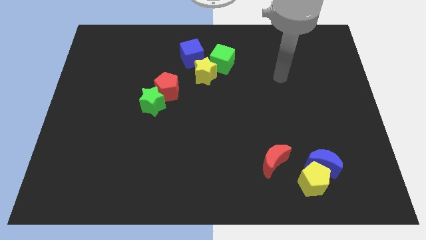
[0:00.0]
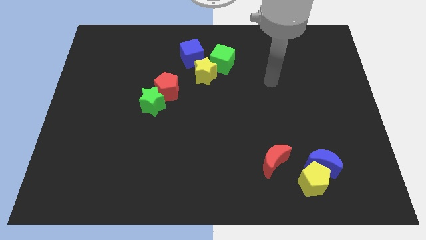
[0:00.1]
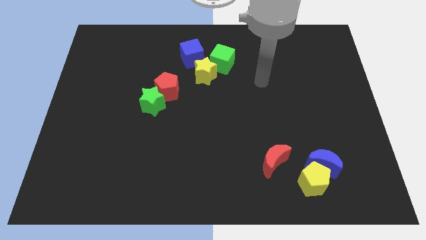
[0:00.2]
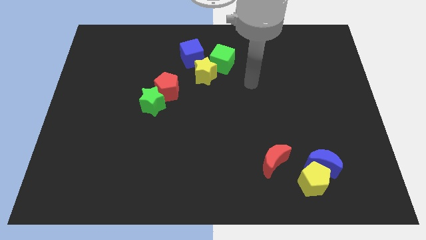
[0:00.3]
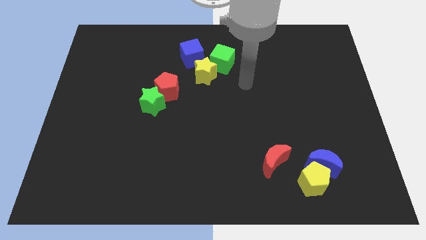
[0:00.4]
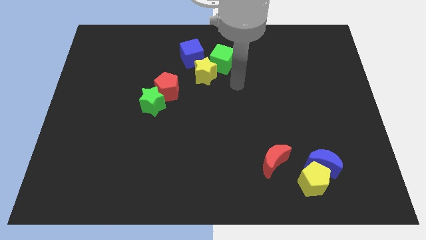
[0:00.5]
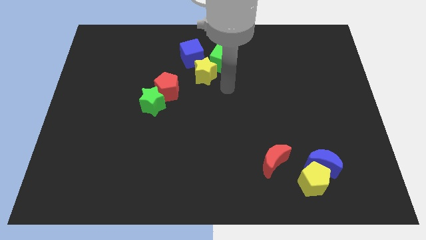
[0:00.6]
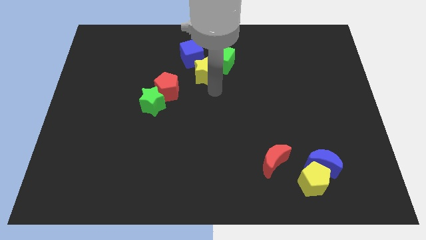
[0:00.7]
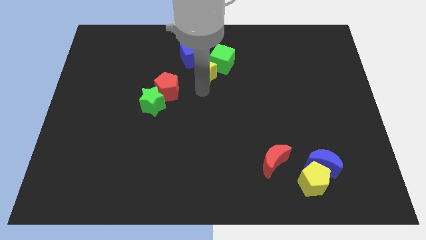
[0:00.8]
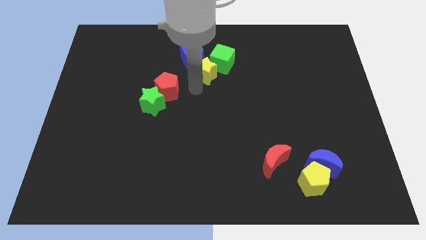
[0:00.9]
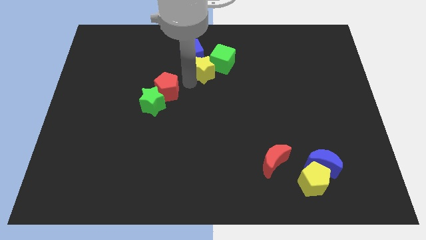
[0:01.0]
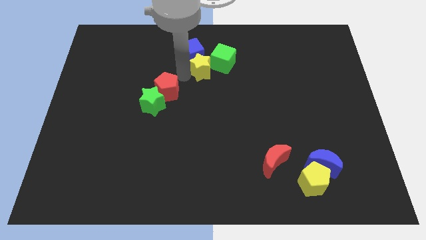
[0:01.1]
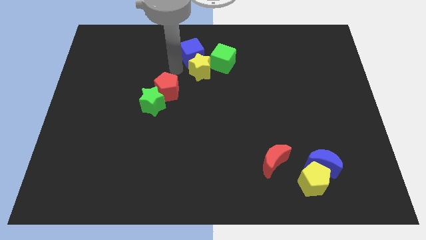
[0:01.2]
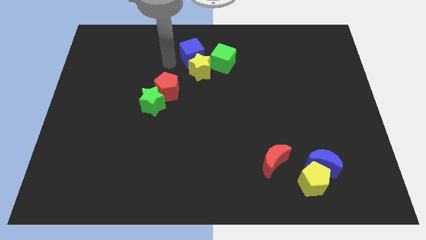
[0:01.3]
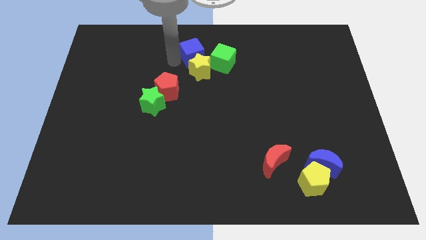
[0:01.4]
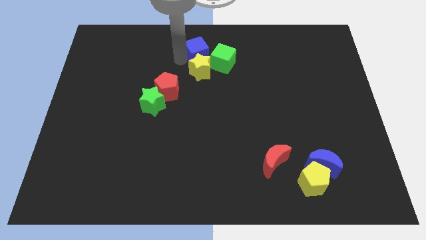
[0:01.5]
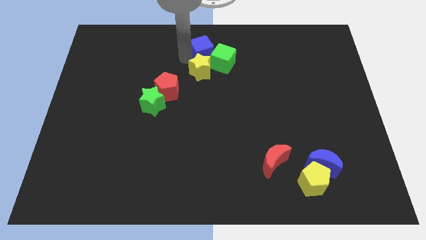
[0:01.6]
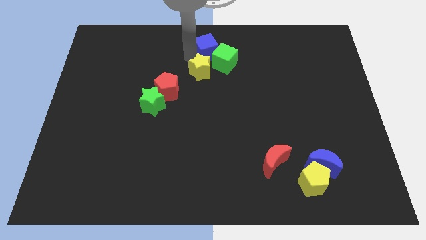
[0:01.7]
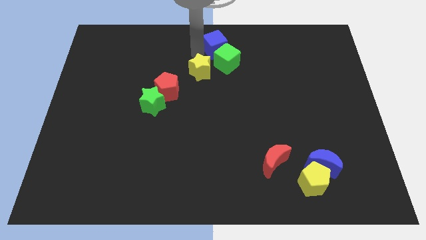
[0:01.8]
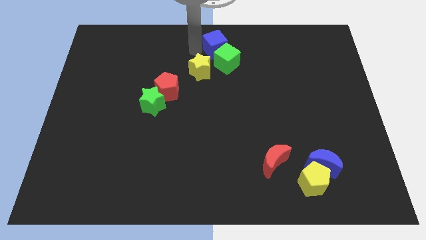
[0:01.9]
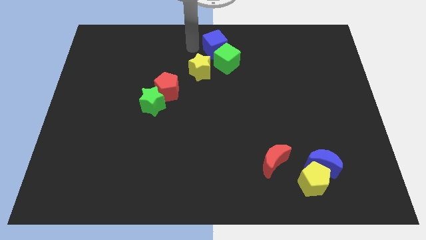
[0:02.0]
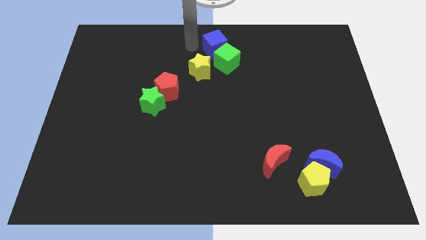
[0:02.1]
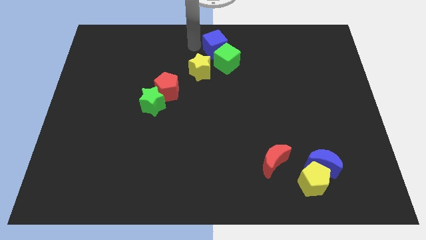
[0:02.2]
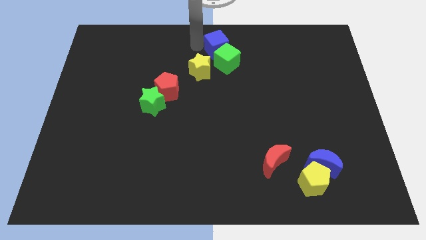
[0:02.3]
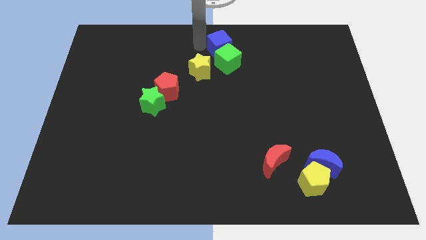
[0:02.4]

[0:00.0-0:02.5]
push the blue cube a little right

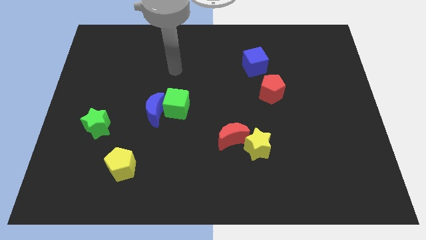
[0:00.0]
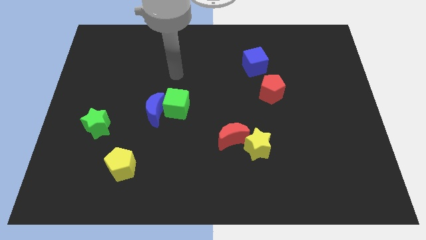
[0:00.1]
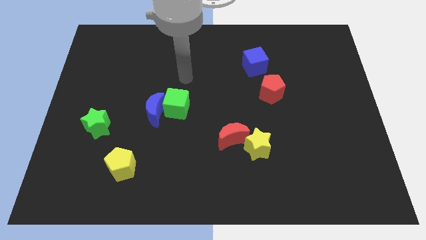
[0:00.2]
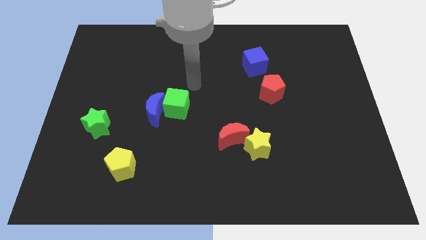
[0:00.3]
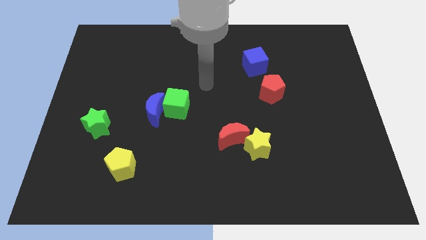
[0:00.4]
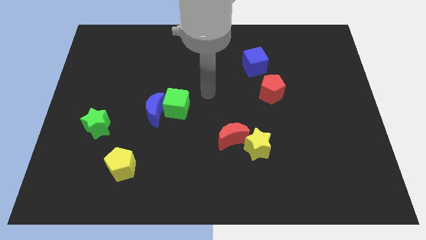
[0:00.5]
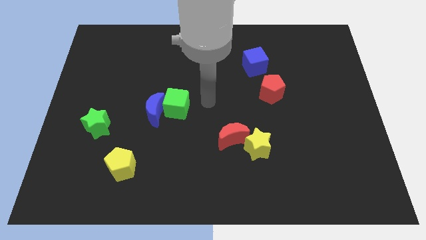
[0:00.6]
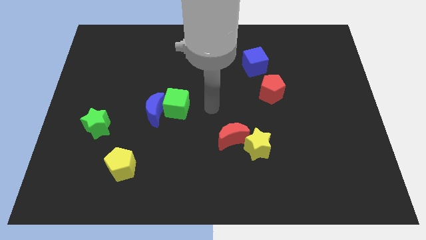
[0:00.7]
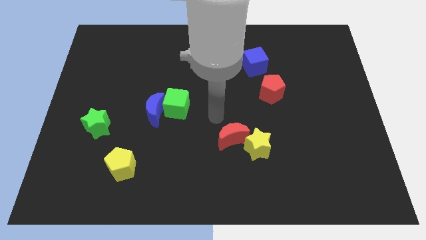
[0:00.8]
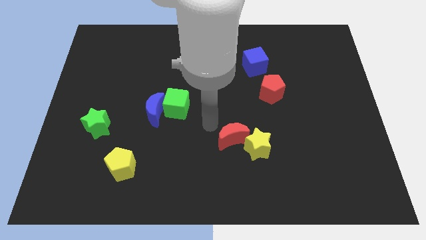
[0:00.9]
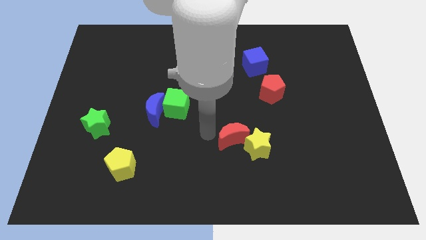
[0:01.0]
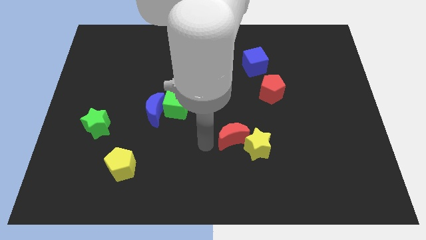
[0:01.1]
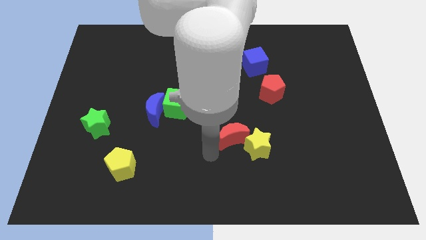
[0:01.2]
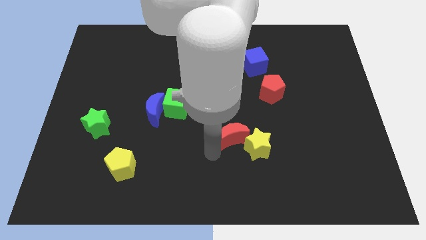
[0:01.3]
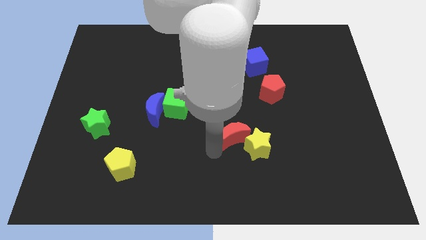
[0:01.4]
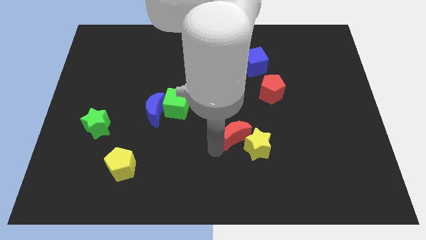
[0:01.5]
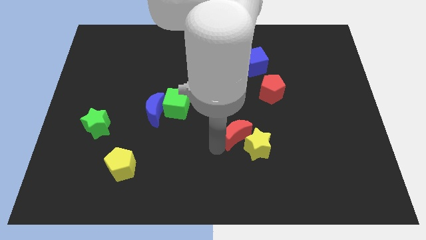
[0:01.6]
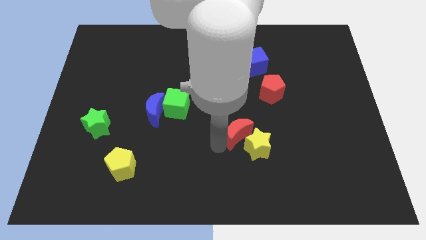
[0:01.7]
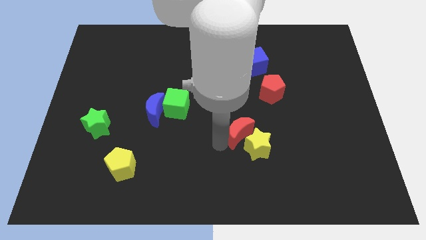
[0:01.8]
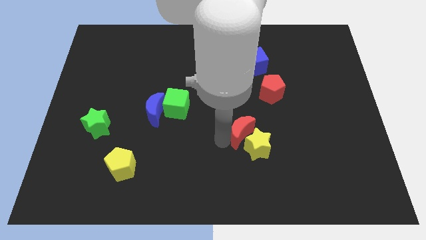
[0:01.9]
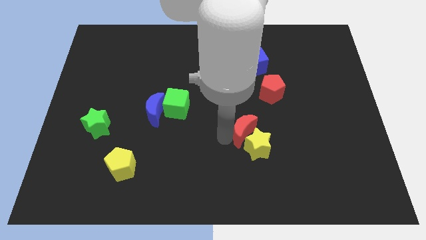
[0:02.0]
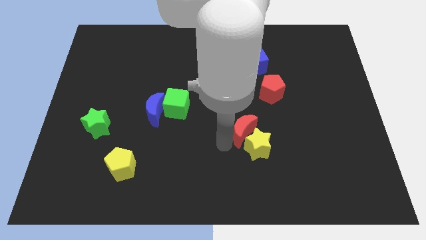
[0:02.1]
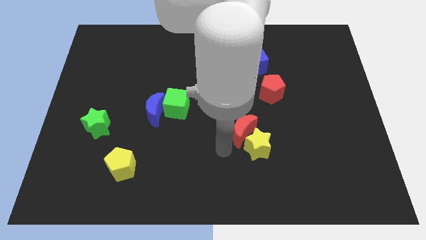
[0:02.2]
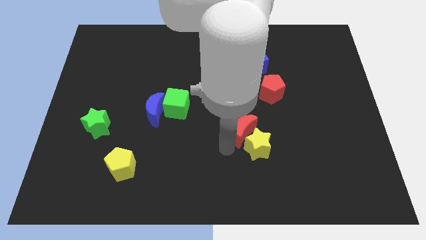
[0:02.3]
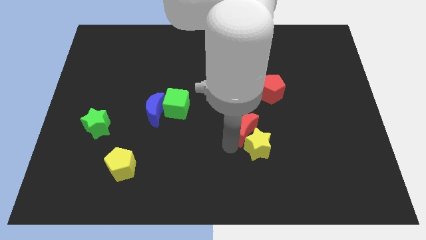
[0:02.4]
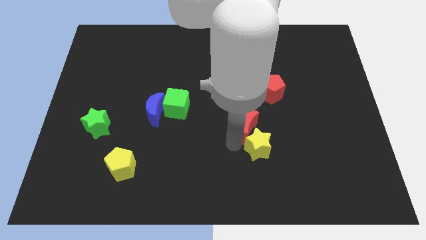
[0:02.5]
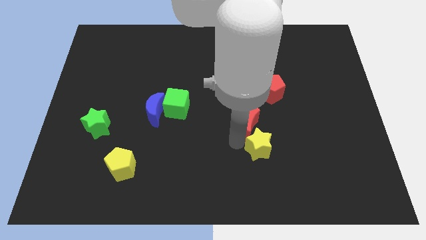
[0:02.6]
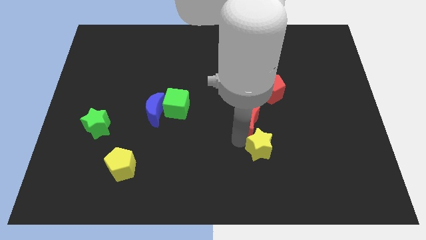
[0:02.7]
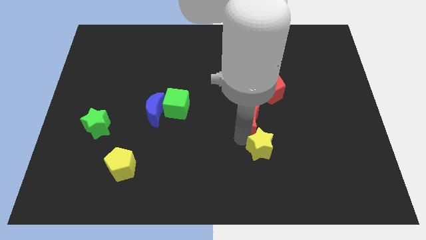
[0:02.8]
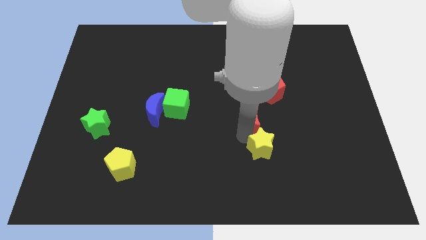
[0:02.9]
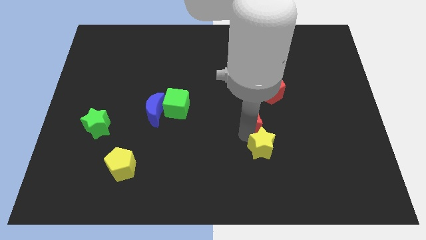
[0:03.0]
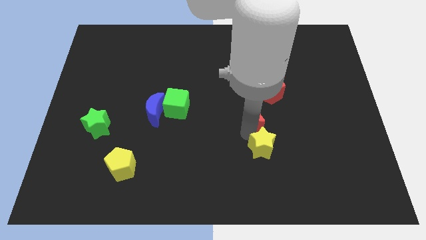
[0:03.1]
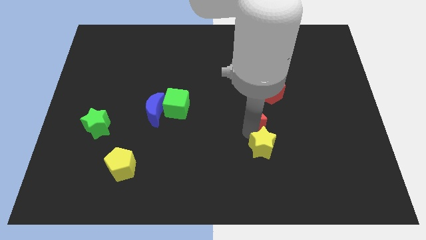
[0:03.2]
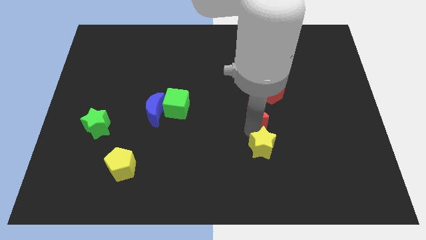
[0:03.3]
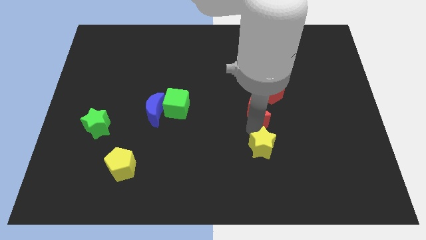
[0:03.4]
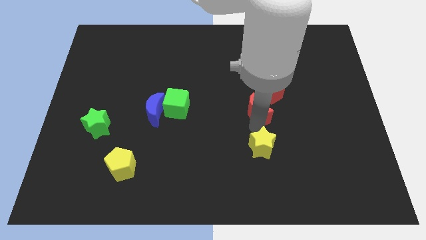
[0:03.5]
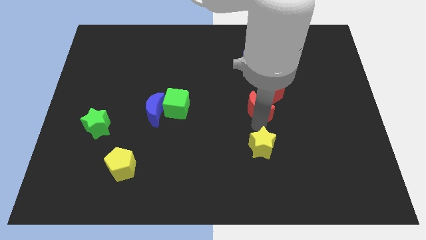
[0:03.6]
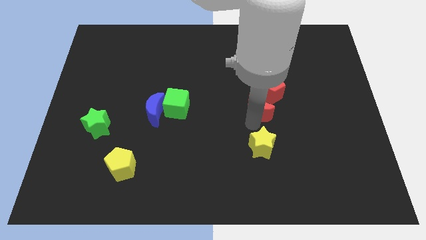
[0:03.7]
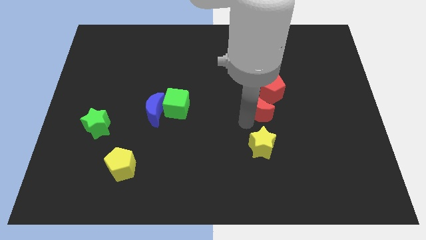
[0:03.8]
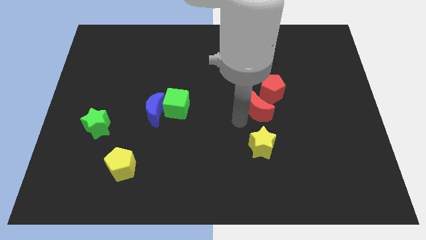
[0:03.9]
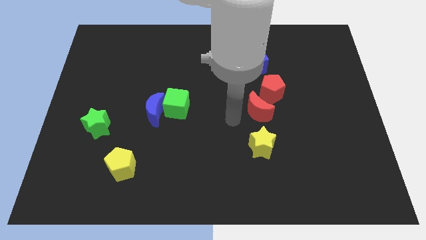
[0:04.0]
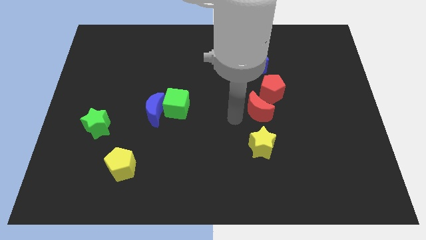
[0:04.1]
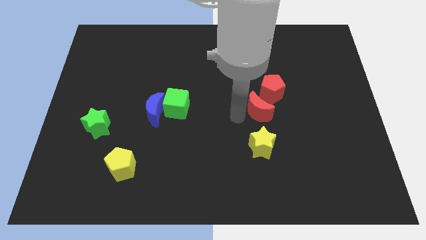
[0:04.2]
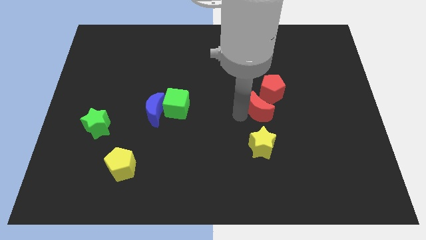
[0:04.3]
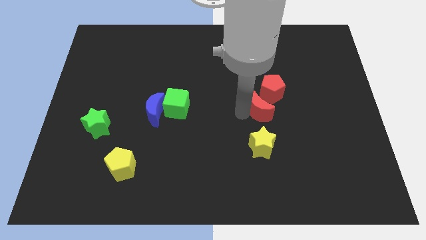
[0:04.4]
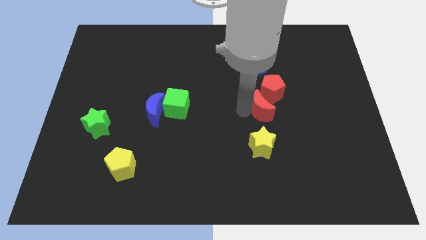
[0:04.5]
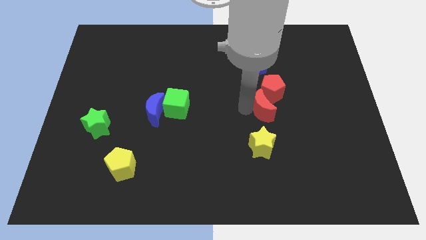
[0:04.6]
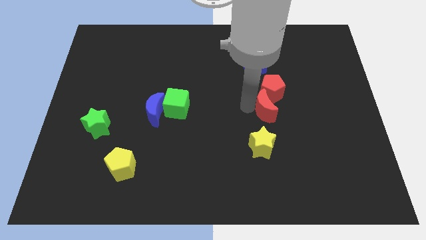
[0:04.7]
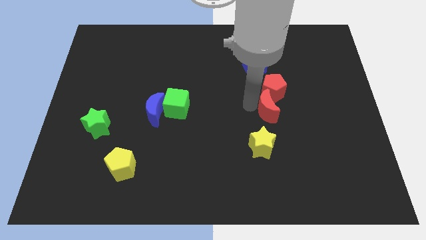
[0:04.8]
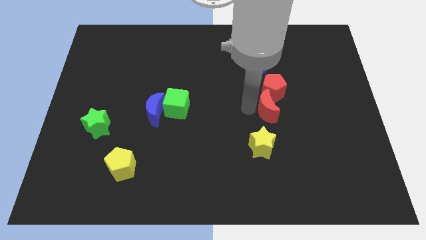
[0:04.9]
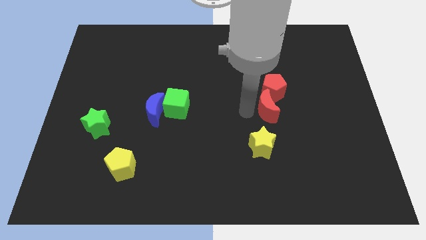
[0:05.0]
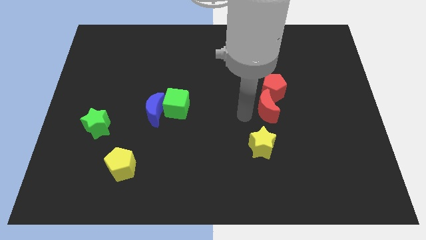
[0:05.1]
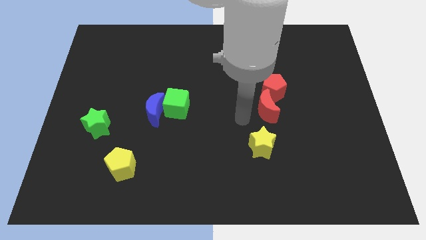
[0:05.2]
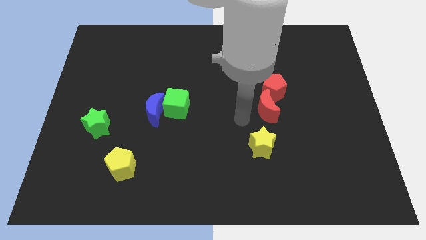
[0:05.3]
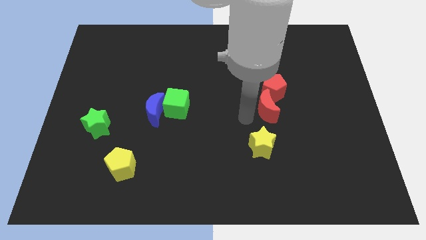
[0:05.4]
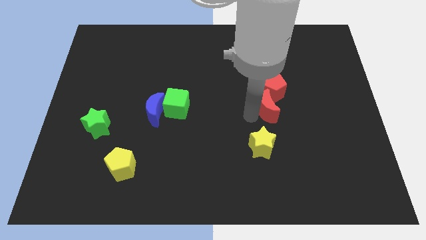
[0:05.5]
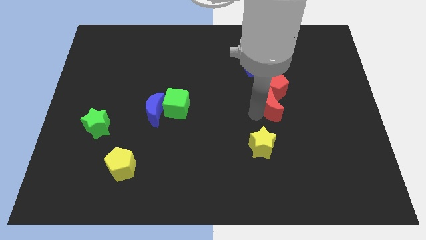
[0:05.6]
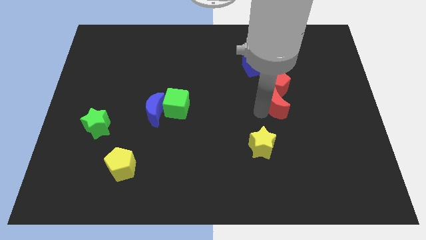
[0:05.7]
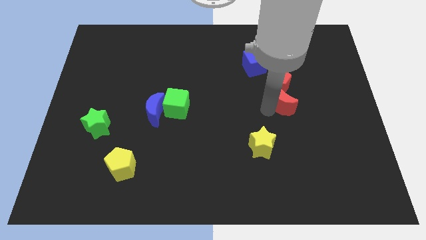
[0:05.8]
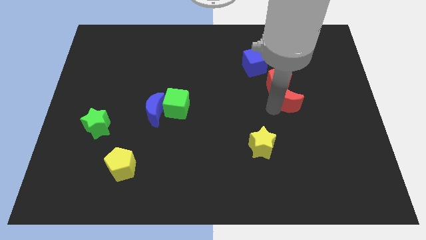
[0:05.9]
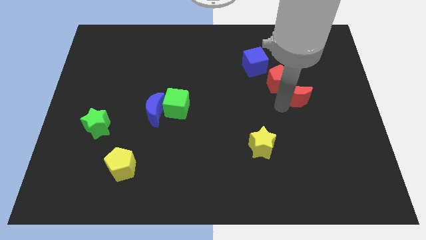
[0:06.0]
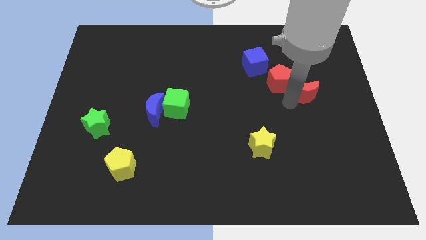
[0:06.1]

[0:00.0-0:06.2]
move the red moon up and to the right
